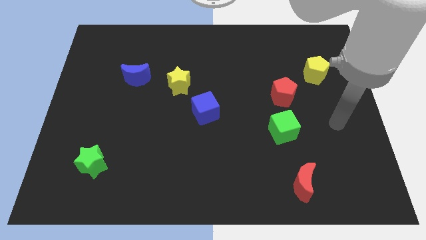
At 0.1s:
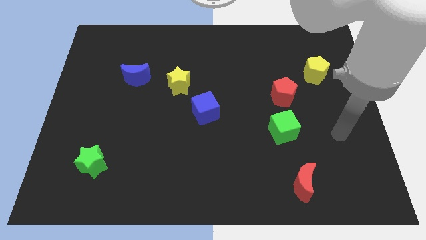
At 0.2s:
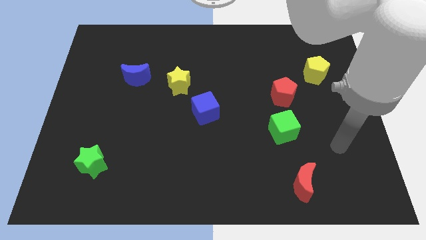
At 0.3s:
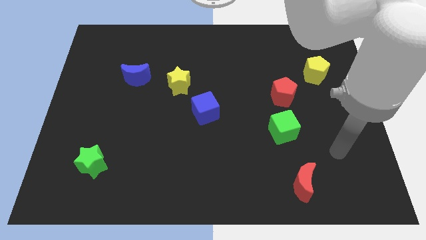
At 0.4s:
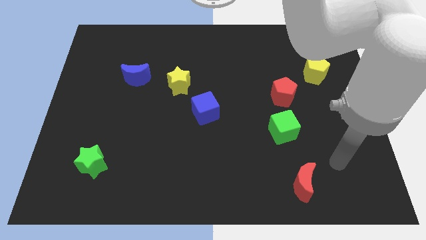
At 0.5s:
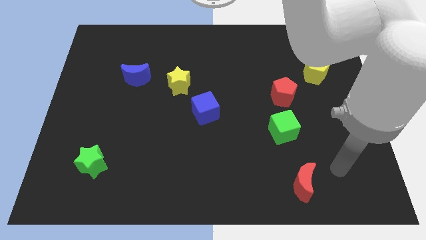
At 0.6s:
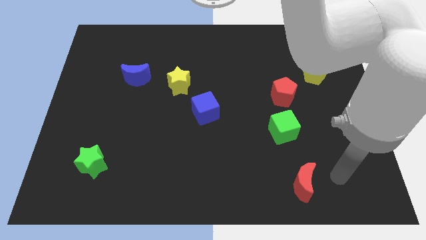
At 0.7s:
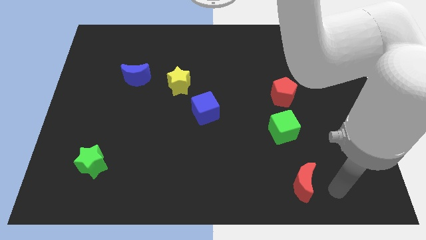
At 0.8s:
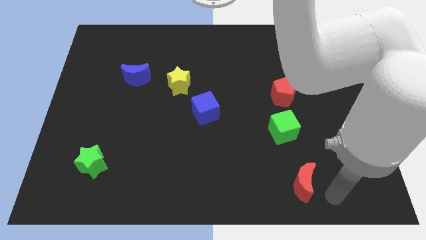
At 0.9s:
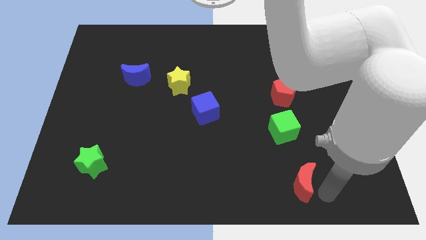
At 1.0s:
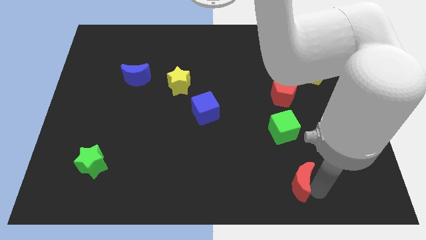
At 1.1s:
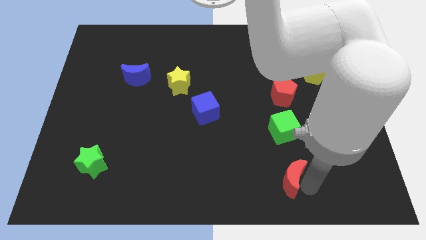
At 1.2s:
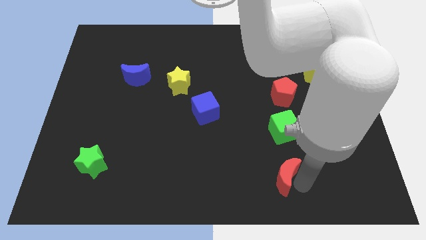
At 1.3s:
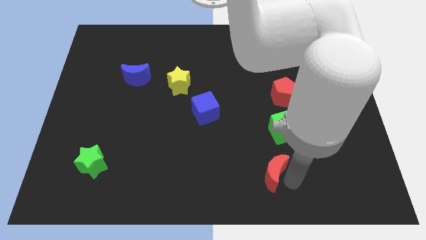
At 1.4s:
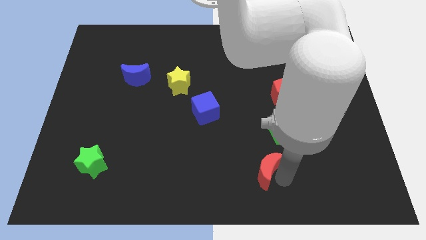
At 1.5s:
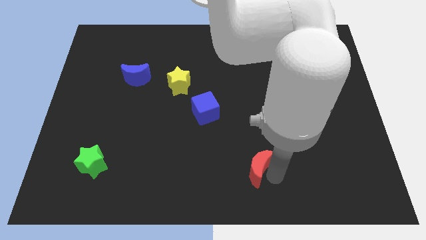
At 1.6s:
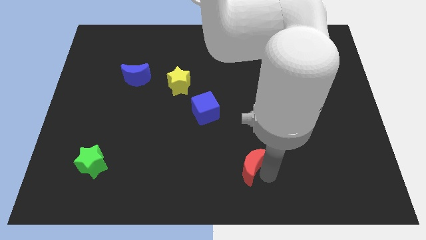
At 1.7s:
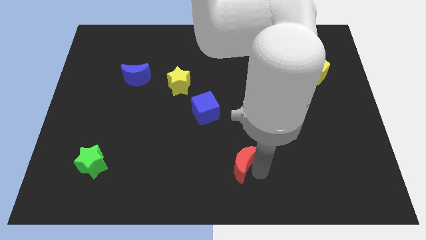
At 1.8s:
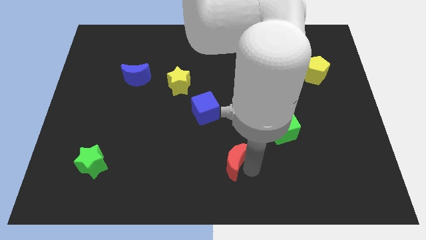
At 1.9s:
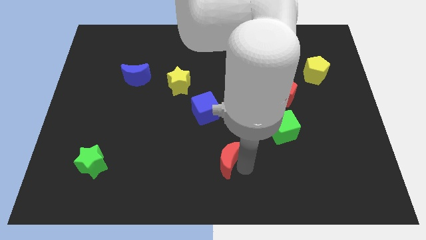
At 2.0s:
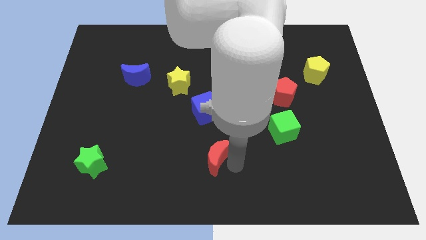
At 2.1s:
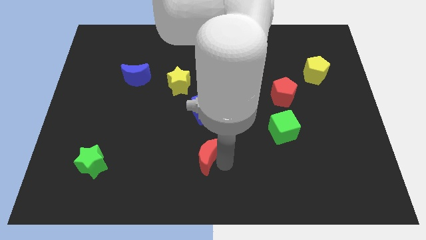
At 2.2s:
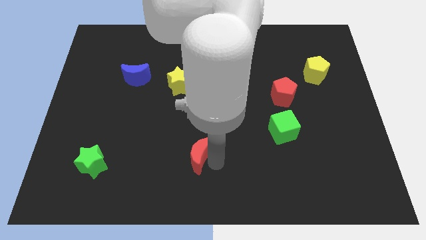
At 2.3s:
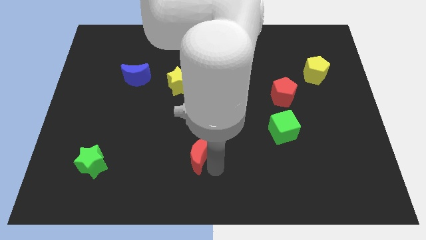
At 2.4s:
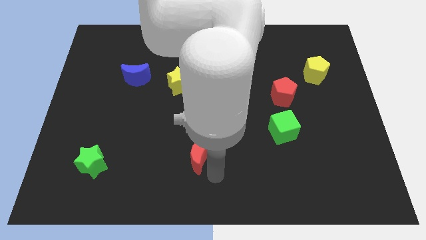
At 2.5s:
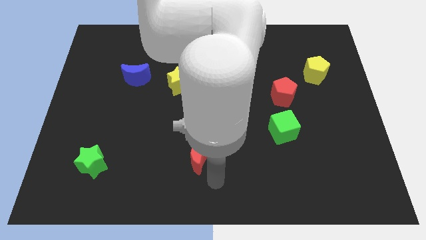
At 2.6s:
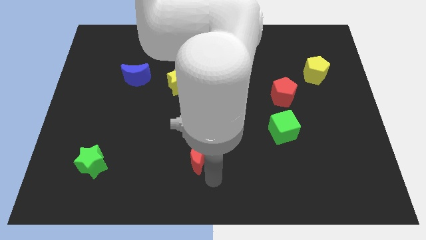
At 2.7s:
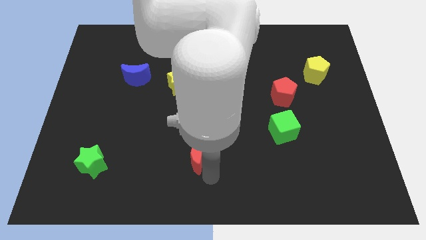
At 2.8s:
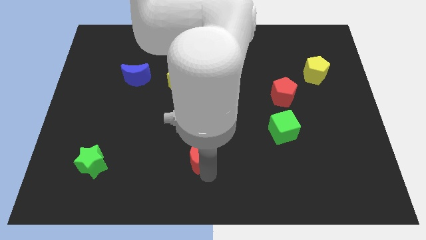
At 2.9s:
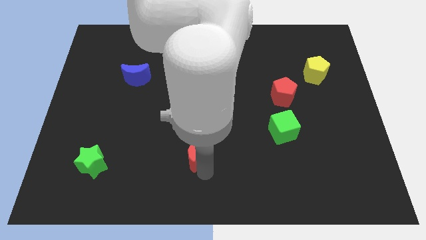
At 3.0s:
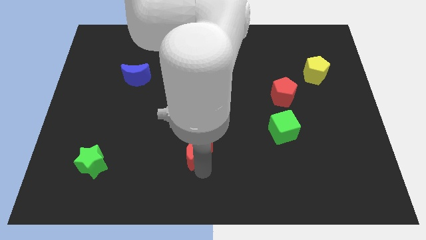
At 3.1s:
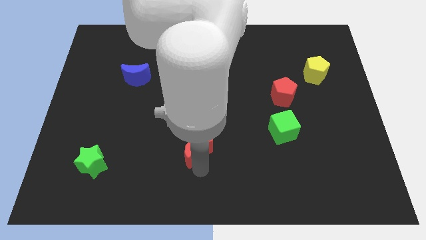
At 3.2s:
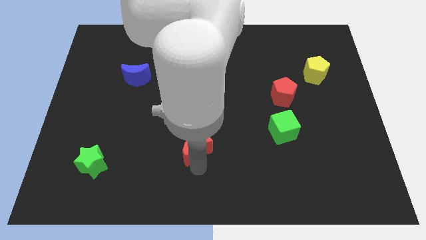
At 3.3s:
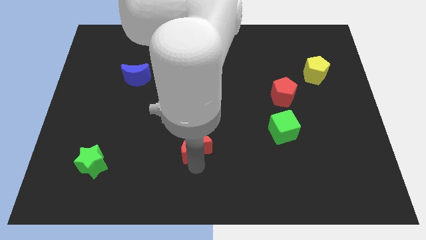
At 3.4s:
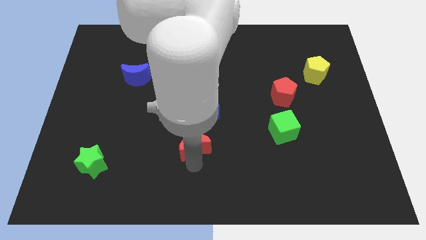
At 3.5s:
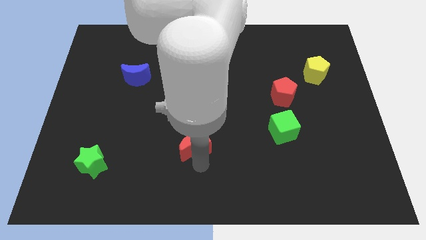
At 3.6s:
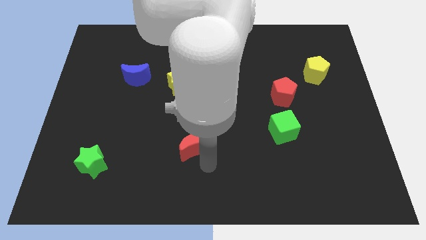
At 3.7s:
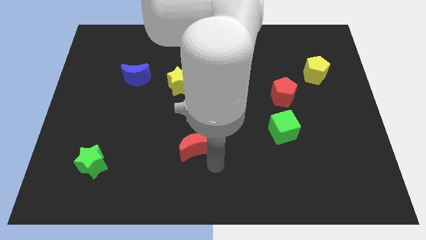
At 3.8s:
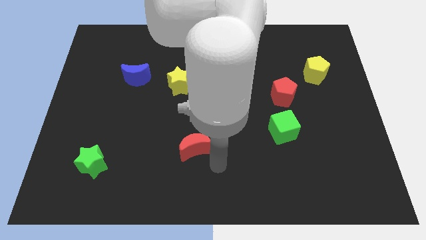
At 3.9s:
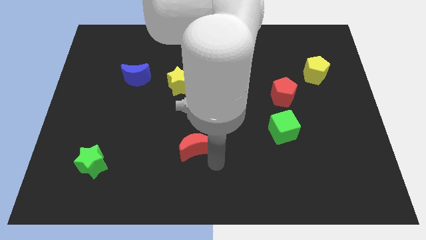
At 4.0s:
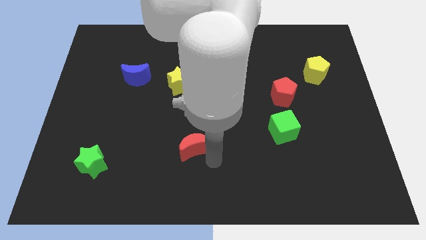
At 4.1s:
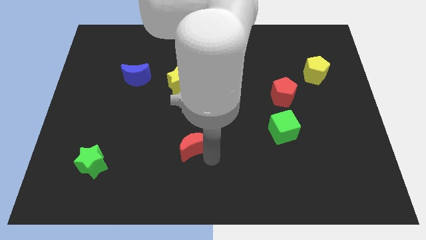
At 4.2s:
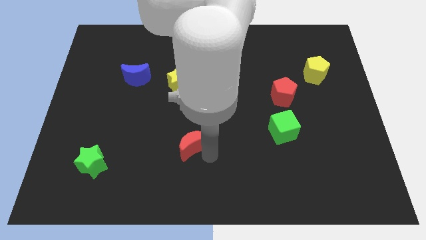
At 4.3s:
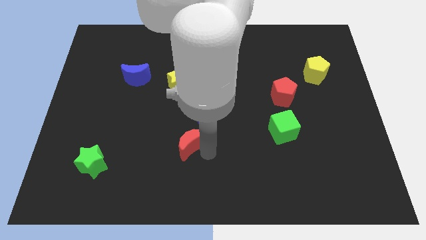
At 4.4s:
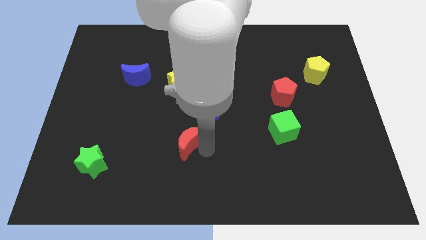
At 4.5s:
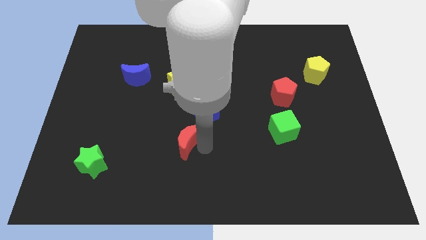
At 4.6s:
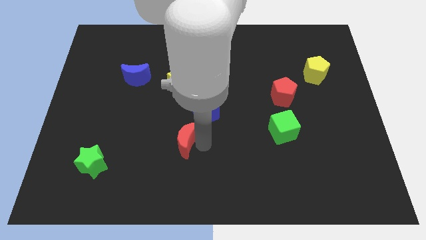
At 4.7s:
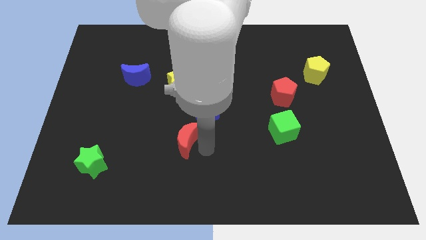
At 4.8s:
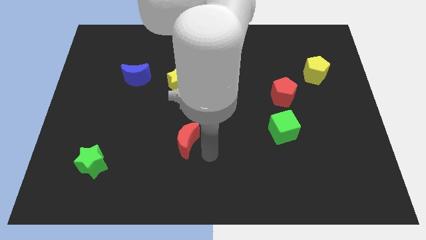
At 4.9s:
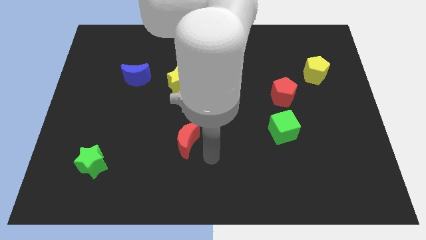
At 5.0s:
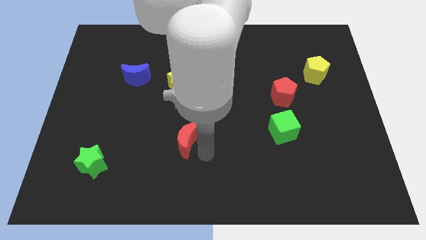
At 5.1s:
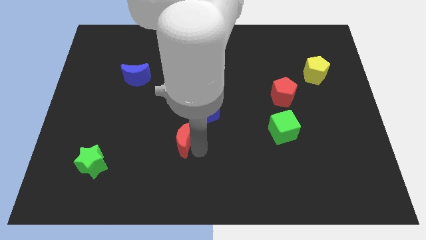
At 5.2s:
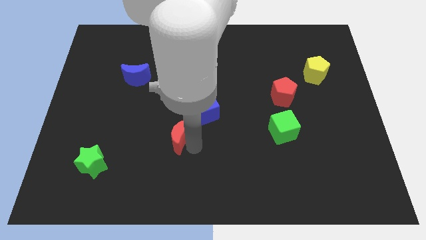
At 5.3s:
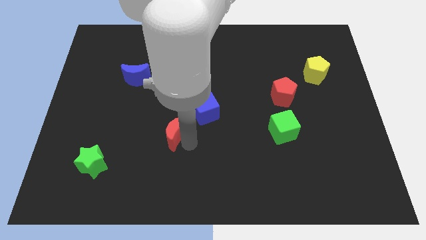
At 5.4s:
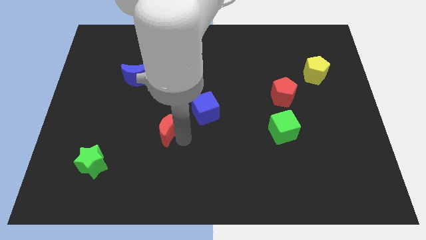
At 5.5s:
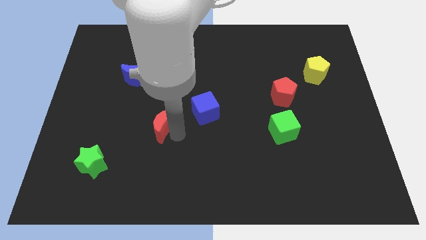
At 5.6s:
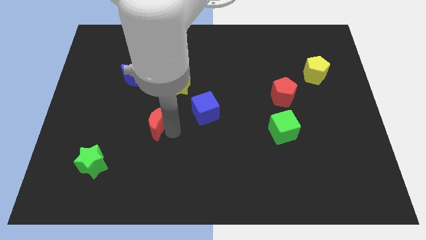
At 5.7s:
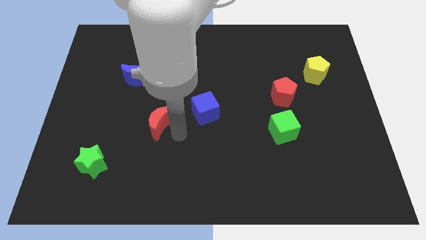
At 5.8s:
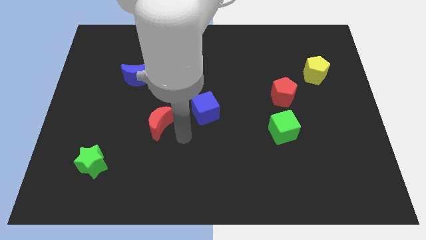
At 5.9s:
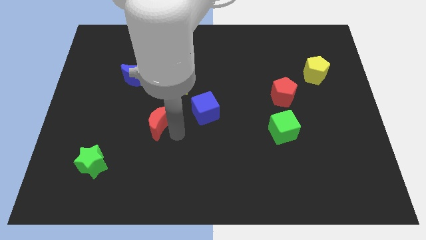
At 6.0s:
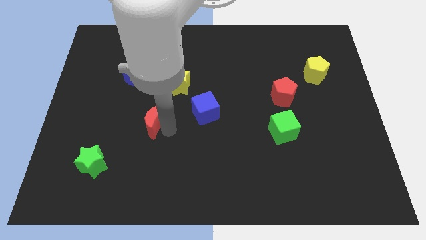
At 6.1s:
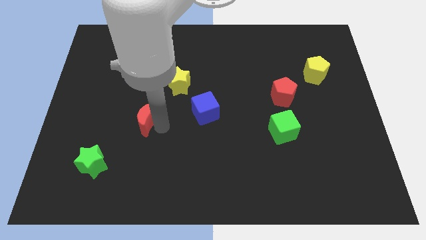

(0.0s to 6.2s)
move the red moon to the bottom of the blue moon
